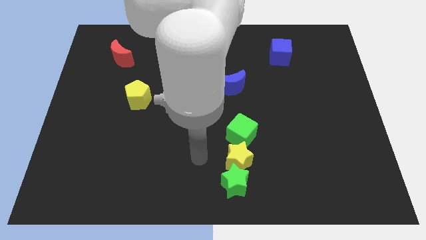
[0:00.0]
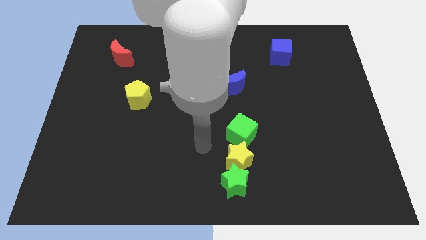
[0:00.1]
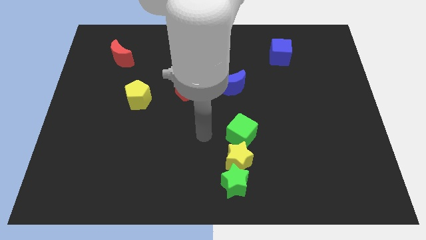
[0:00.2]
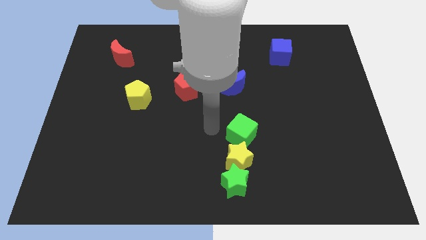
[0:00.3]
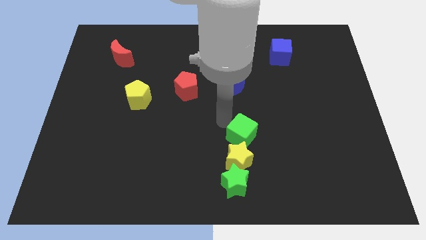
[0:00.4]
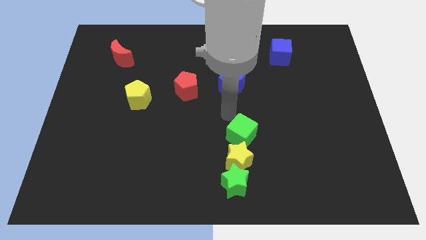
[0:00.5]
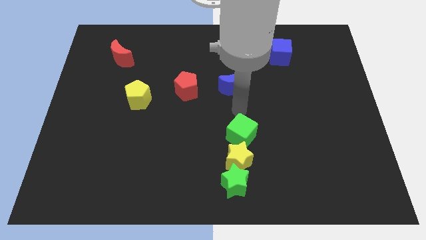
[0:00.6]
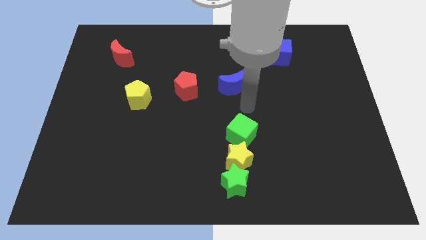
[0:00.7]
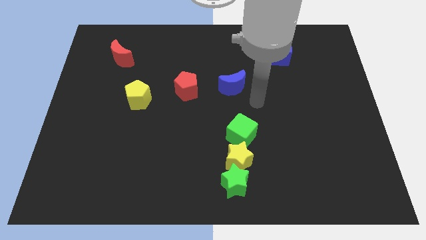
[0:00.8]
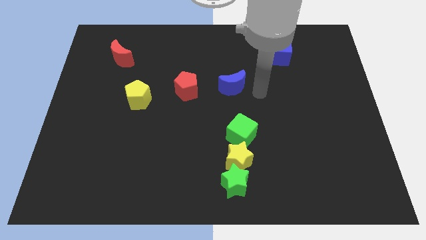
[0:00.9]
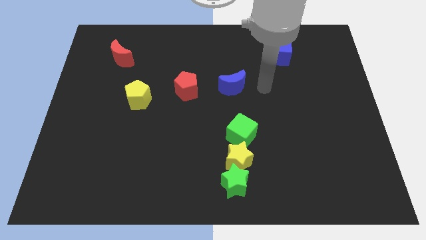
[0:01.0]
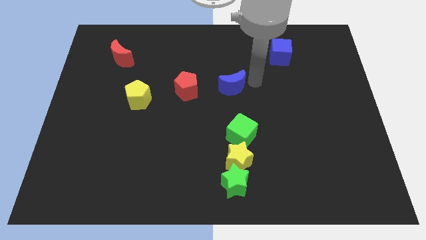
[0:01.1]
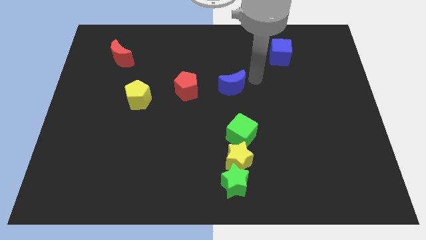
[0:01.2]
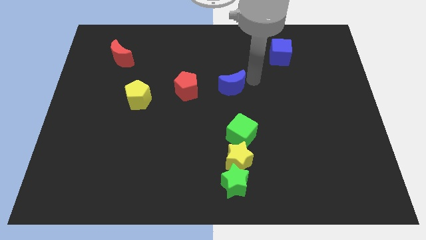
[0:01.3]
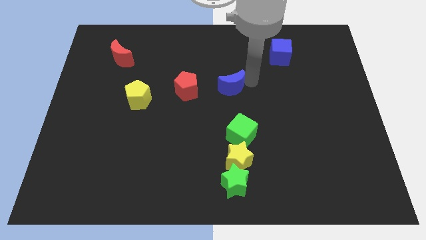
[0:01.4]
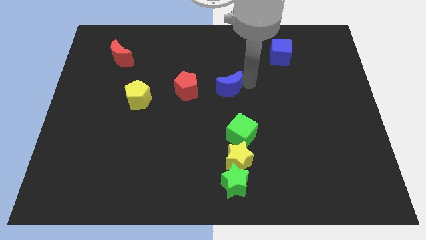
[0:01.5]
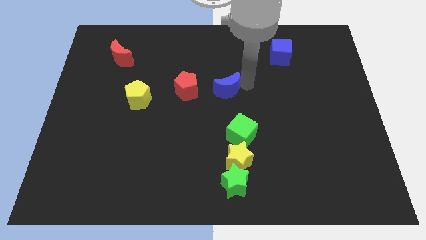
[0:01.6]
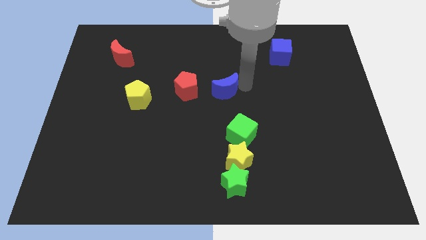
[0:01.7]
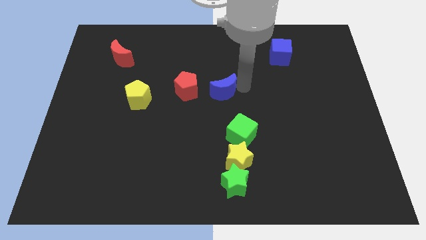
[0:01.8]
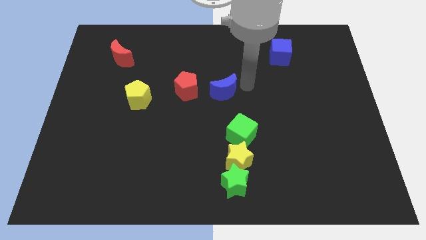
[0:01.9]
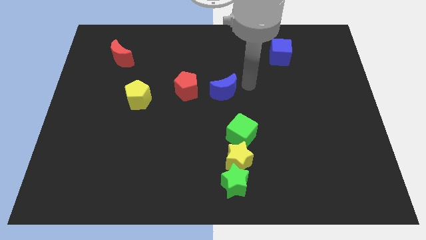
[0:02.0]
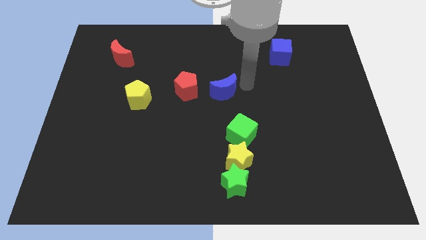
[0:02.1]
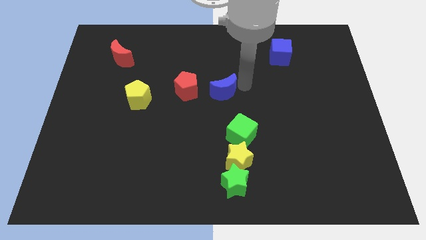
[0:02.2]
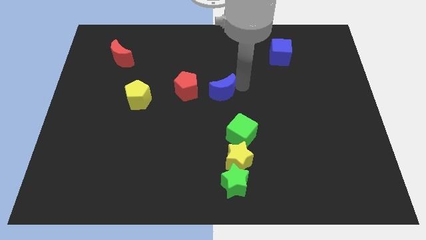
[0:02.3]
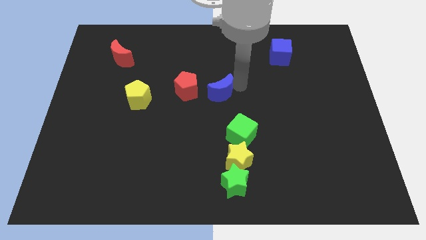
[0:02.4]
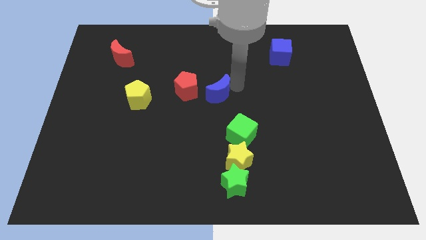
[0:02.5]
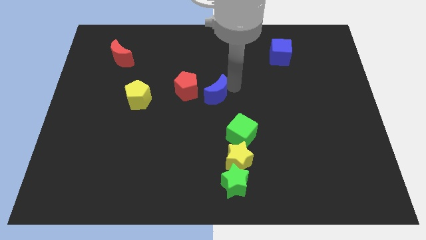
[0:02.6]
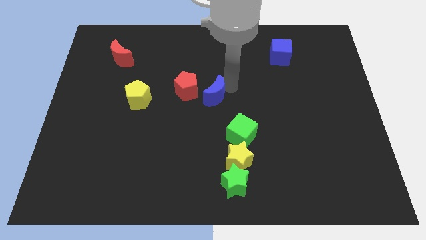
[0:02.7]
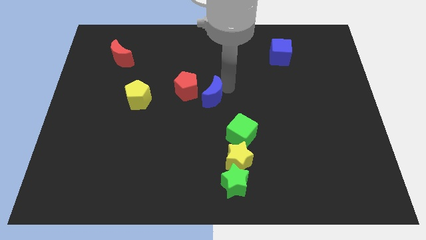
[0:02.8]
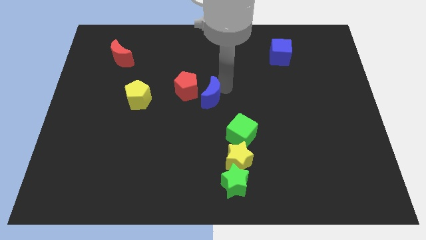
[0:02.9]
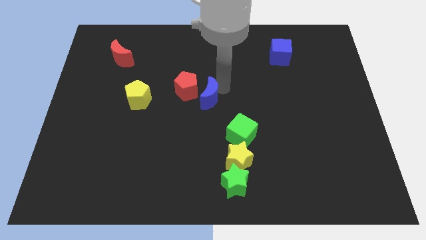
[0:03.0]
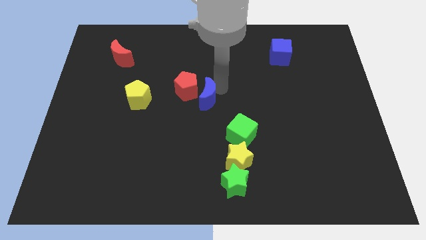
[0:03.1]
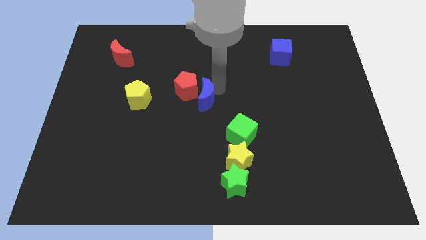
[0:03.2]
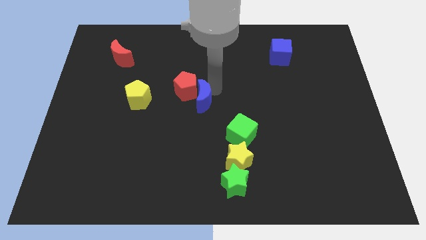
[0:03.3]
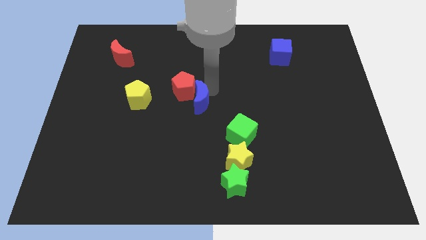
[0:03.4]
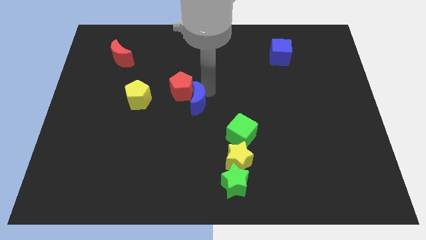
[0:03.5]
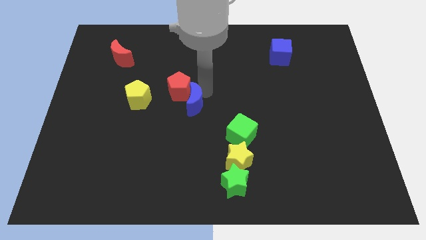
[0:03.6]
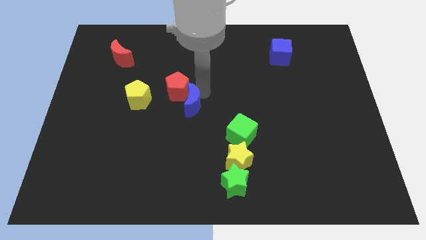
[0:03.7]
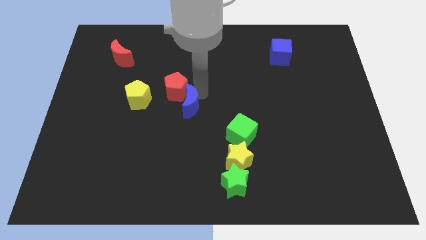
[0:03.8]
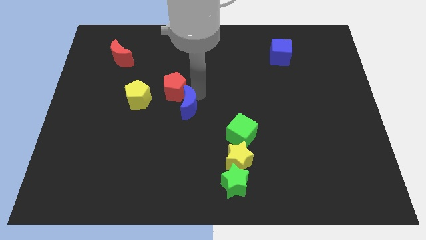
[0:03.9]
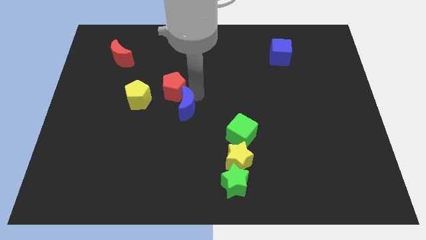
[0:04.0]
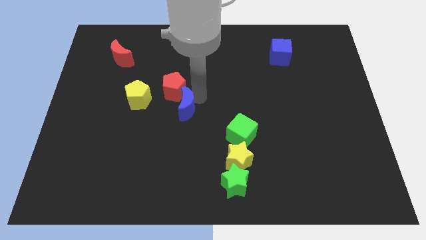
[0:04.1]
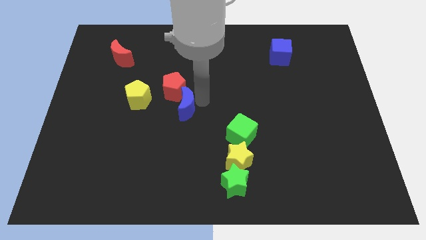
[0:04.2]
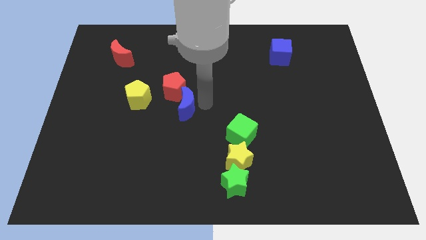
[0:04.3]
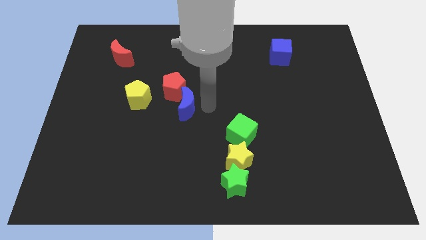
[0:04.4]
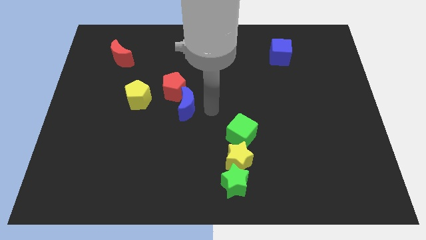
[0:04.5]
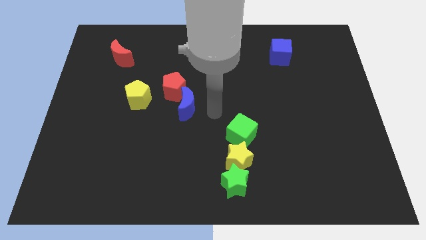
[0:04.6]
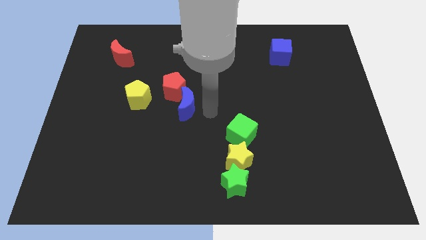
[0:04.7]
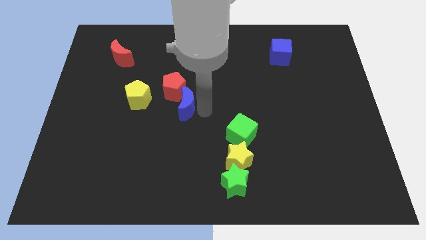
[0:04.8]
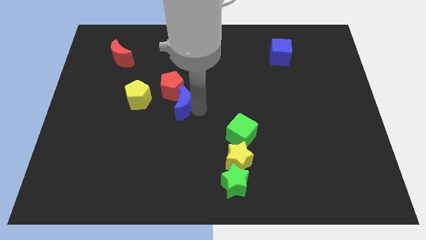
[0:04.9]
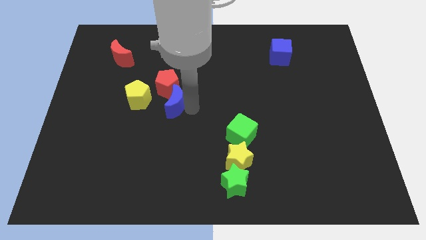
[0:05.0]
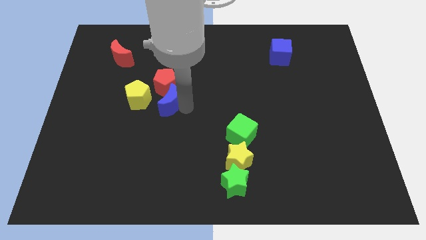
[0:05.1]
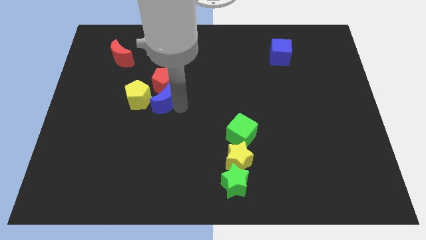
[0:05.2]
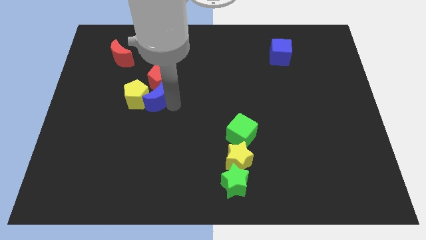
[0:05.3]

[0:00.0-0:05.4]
slide the blue moon to the yellow pentagon

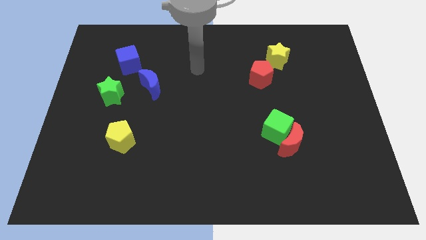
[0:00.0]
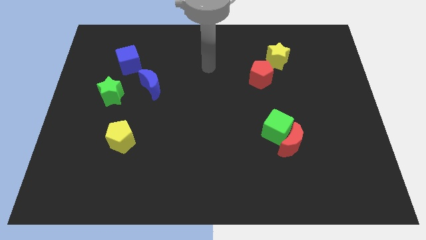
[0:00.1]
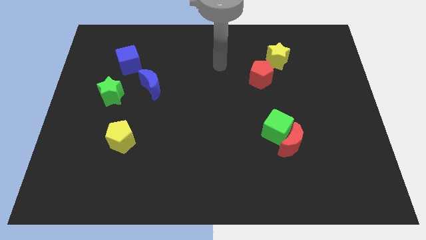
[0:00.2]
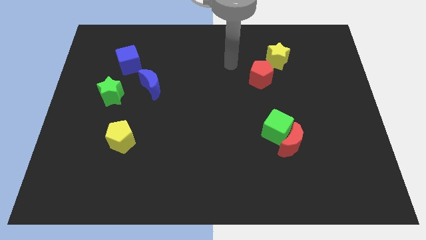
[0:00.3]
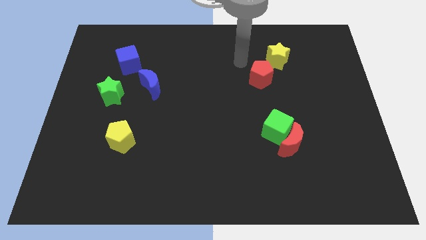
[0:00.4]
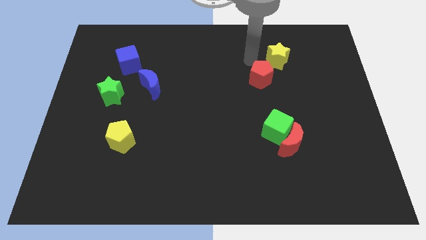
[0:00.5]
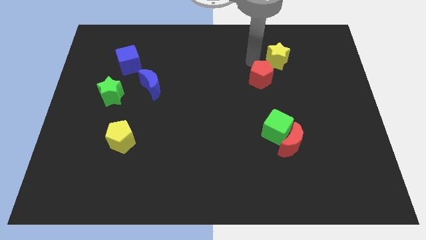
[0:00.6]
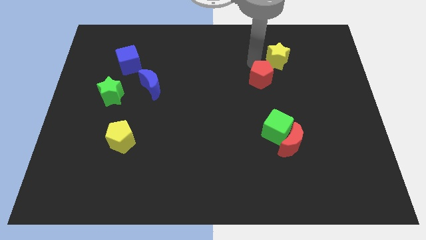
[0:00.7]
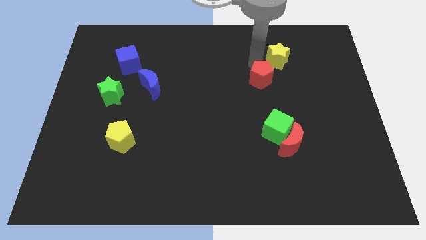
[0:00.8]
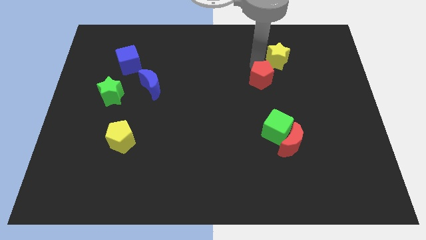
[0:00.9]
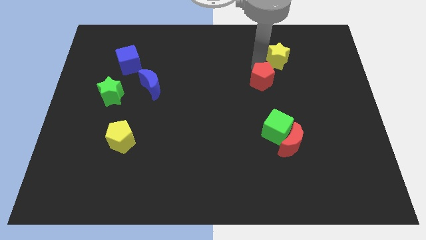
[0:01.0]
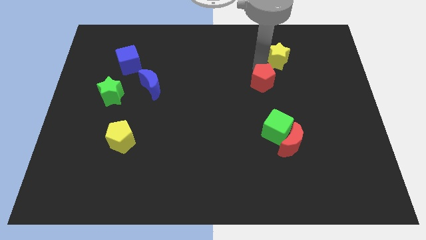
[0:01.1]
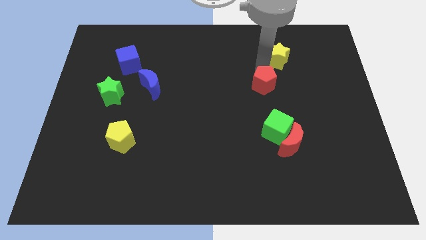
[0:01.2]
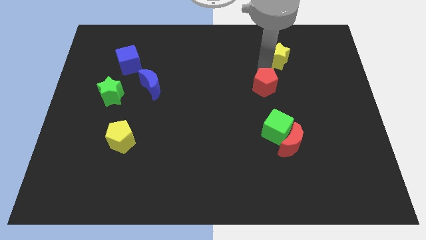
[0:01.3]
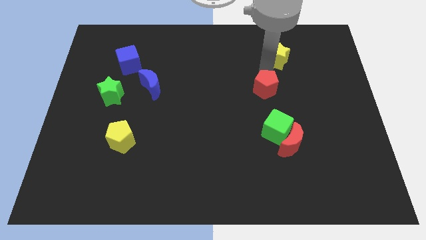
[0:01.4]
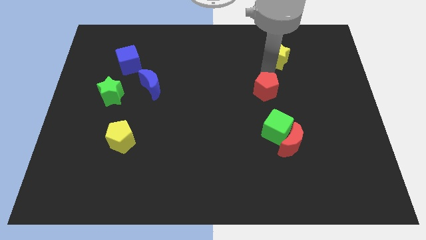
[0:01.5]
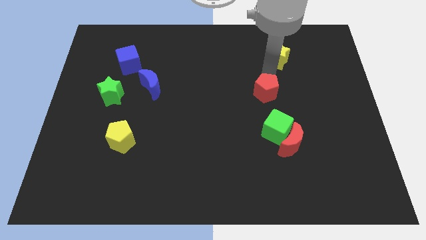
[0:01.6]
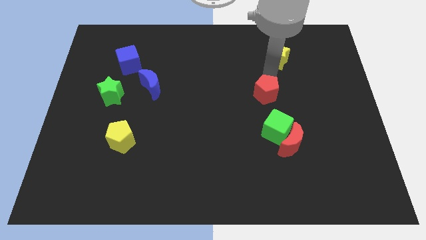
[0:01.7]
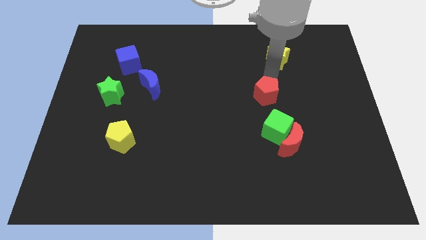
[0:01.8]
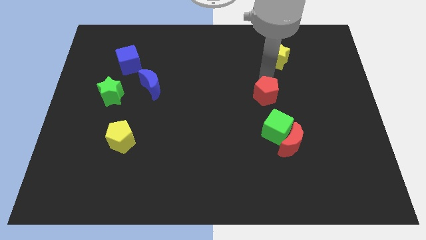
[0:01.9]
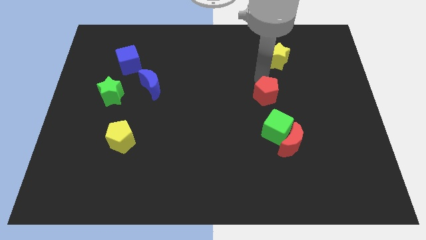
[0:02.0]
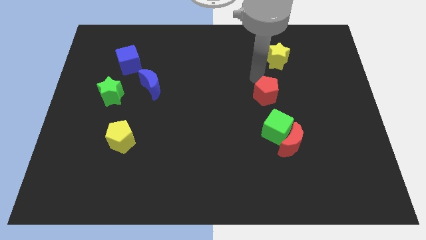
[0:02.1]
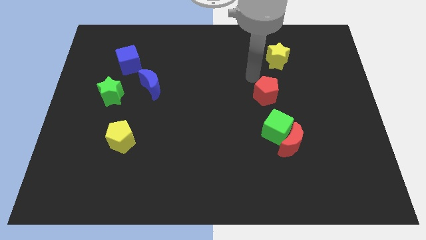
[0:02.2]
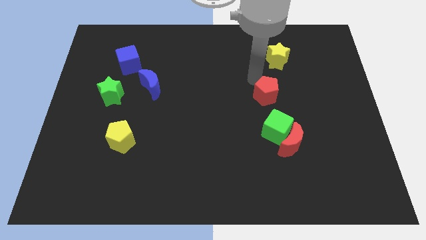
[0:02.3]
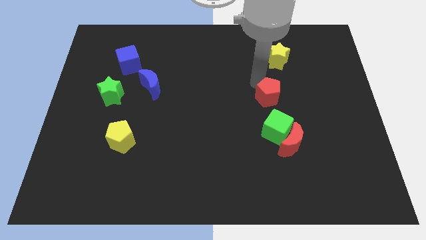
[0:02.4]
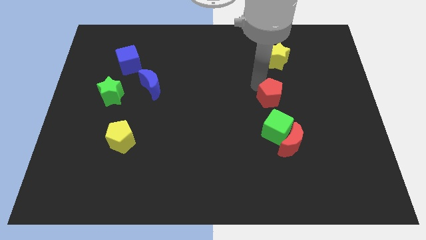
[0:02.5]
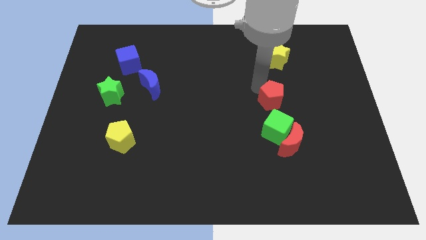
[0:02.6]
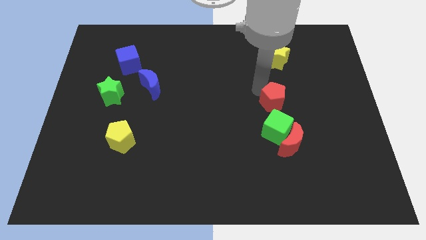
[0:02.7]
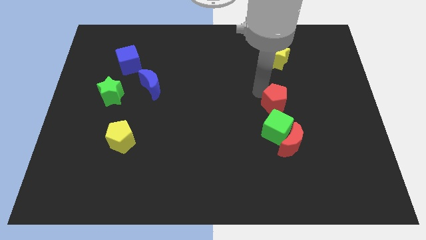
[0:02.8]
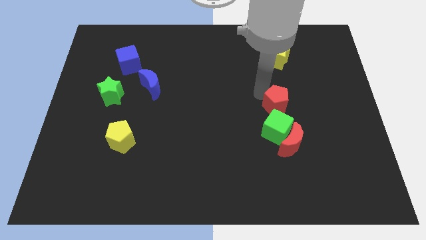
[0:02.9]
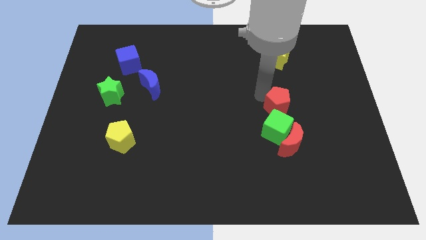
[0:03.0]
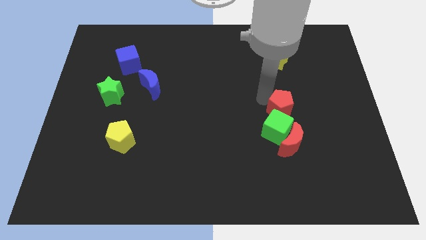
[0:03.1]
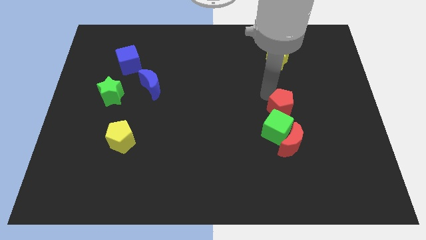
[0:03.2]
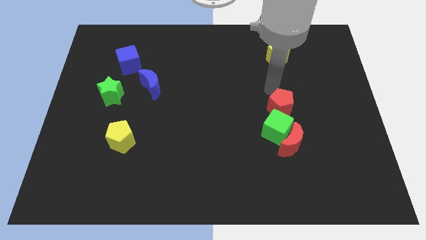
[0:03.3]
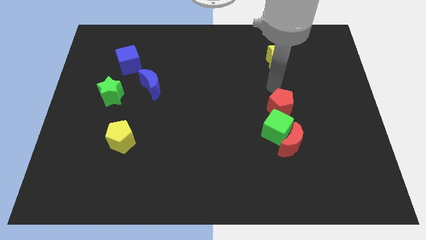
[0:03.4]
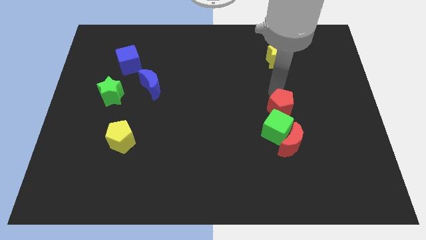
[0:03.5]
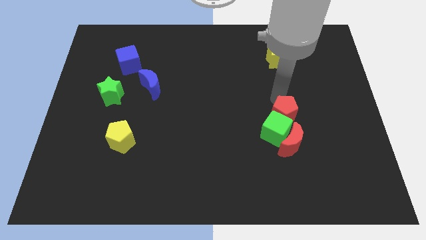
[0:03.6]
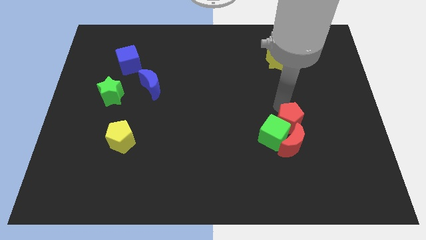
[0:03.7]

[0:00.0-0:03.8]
push the red pentagon close to the red moon
